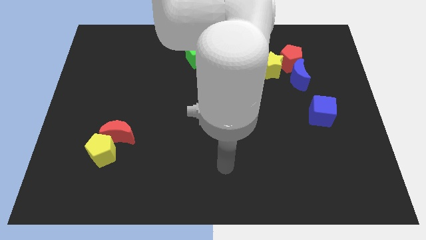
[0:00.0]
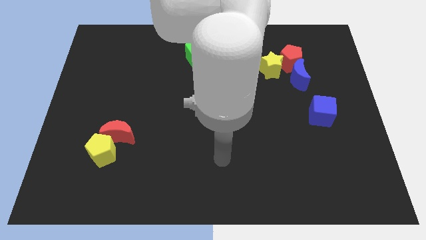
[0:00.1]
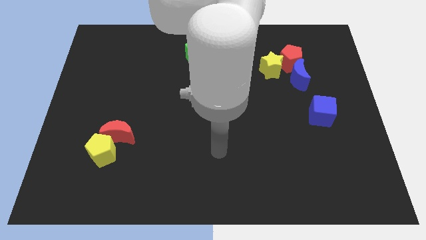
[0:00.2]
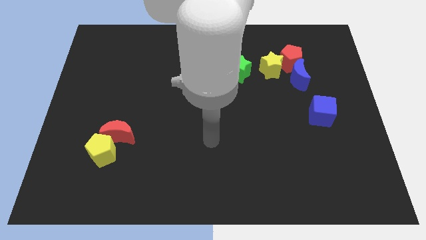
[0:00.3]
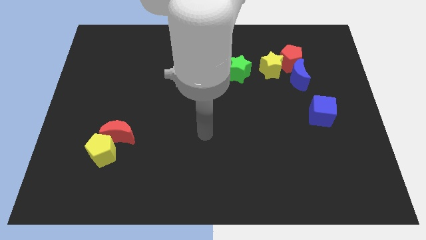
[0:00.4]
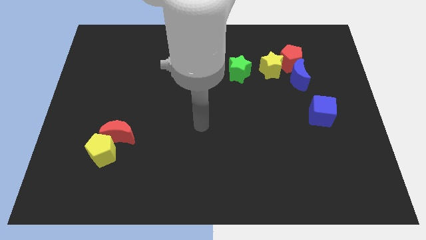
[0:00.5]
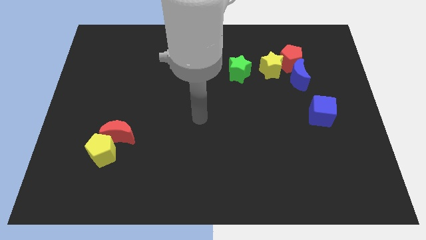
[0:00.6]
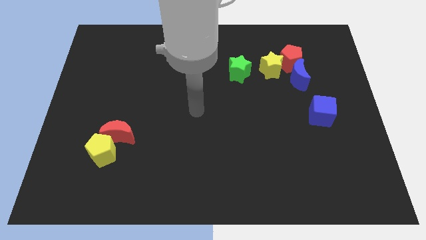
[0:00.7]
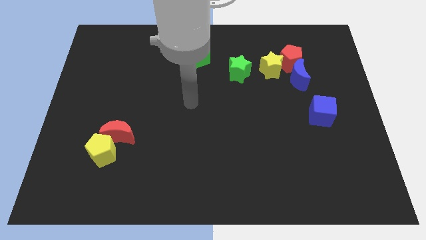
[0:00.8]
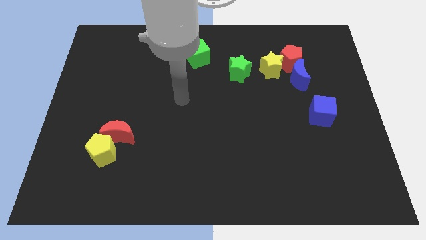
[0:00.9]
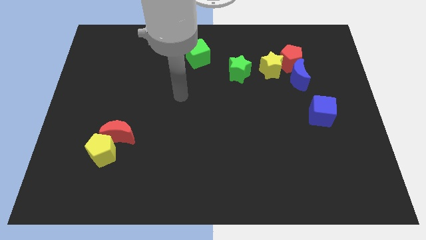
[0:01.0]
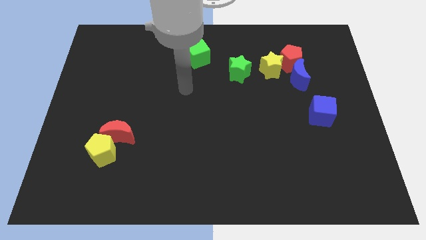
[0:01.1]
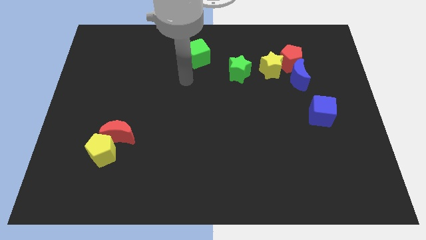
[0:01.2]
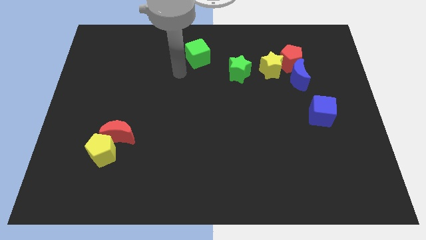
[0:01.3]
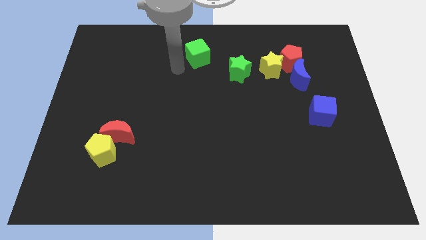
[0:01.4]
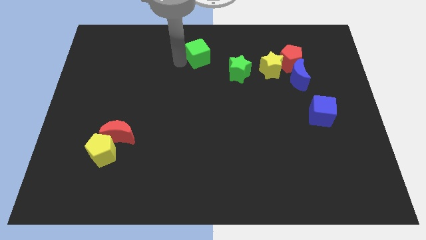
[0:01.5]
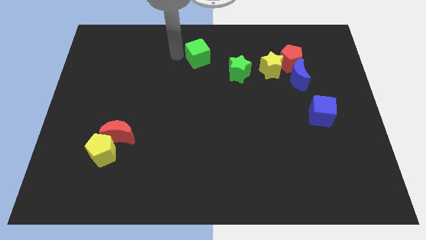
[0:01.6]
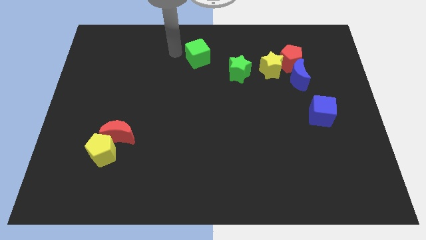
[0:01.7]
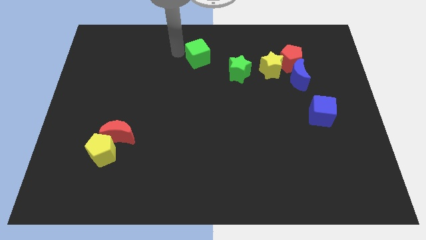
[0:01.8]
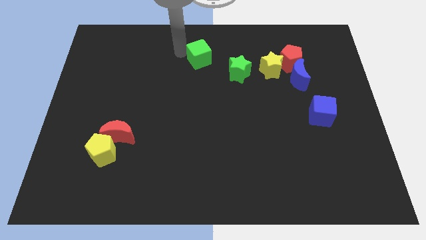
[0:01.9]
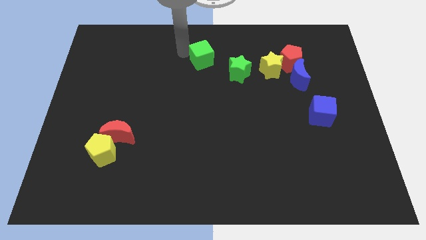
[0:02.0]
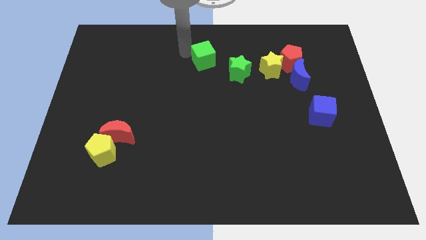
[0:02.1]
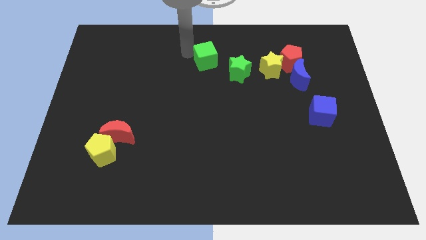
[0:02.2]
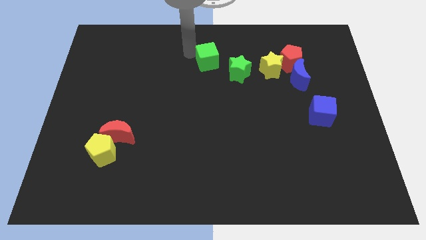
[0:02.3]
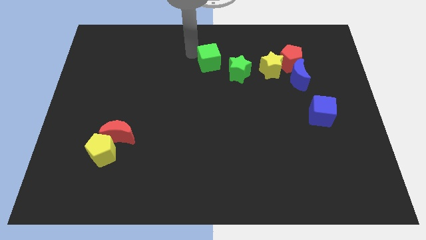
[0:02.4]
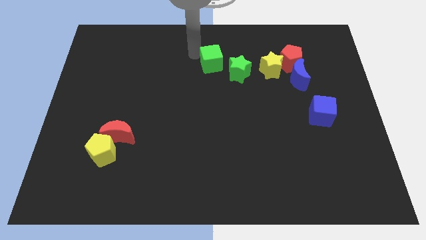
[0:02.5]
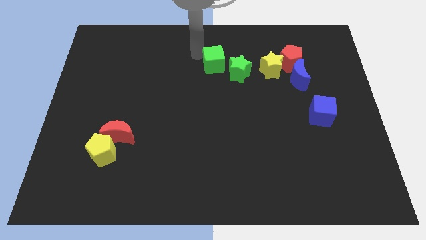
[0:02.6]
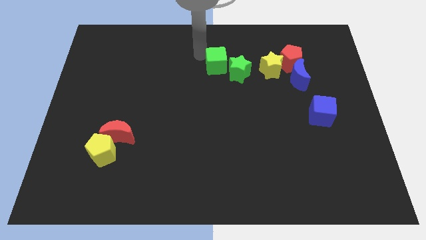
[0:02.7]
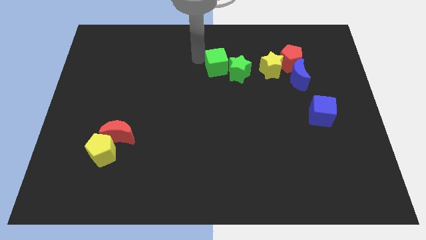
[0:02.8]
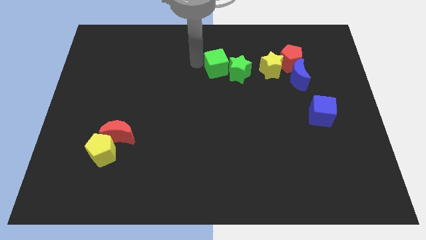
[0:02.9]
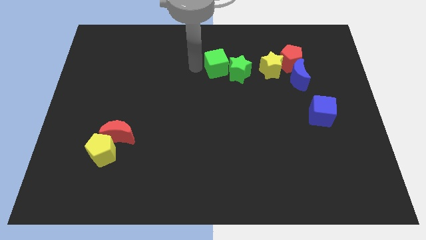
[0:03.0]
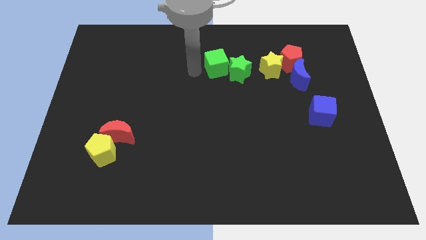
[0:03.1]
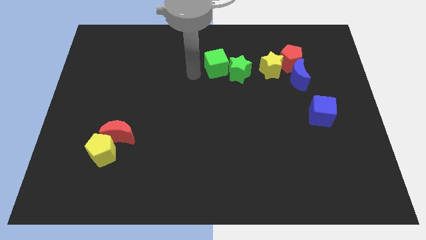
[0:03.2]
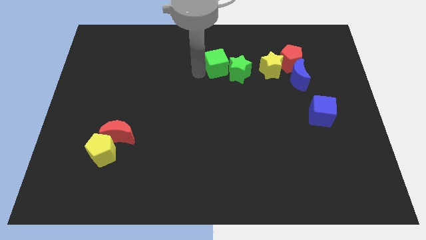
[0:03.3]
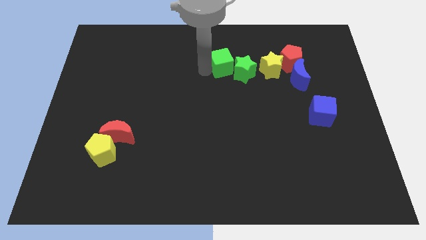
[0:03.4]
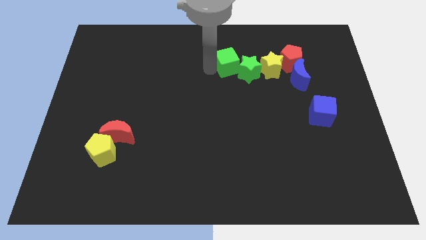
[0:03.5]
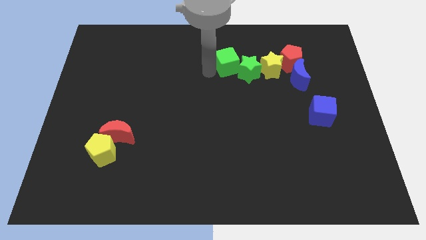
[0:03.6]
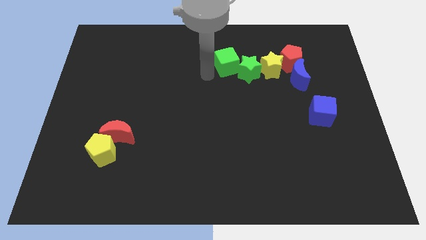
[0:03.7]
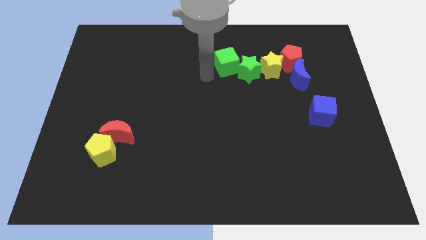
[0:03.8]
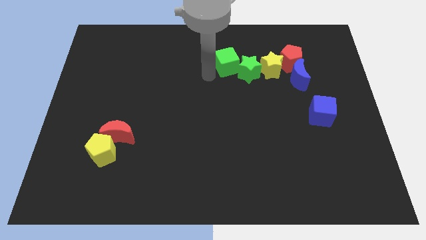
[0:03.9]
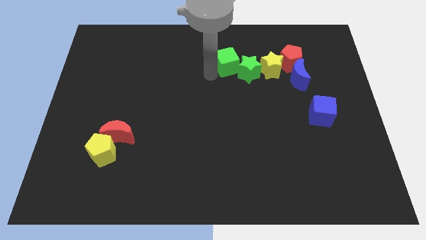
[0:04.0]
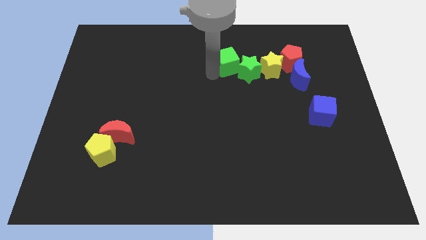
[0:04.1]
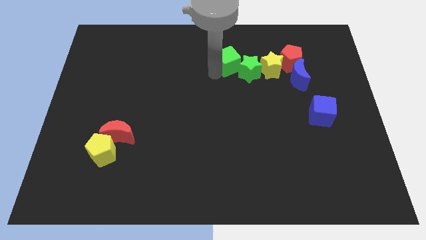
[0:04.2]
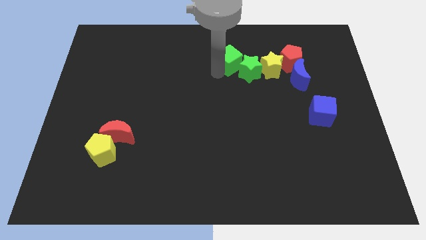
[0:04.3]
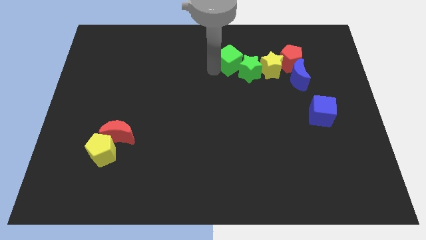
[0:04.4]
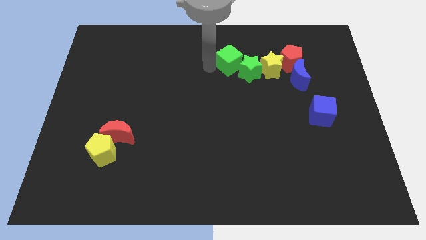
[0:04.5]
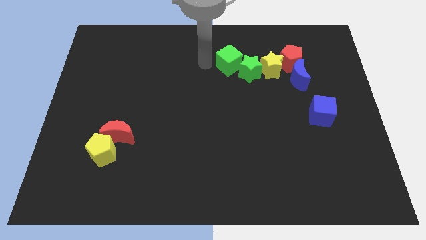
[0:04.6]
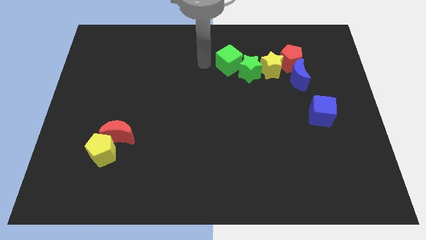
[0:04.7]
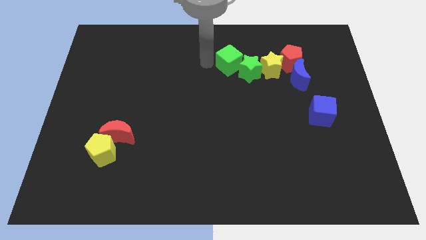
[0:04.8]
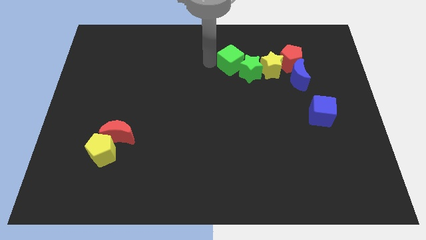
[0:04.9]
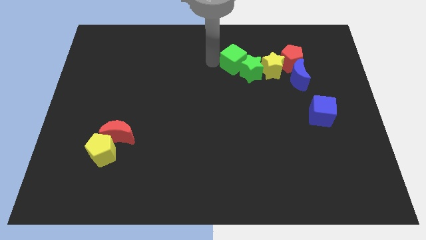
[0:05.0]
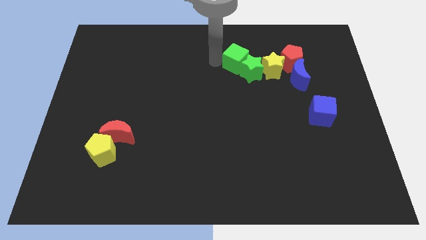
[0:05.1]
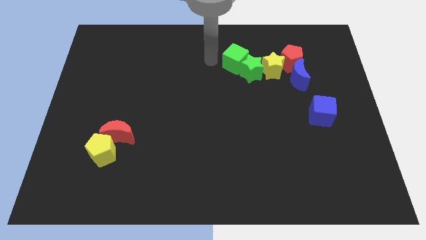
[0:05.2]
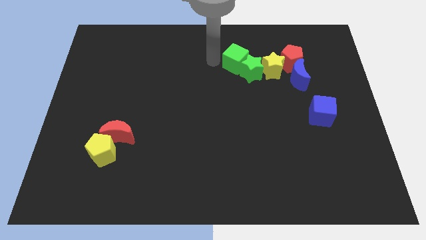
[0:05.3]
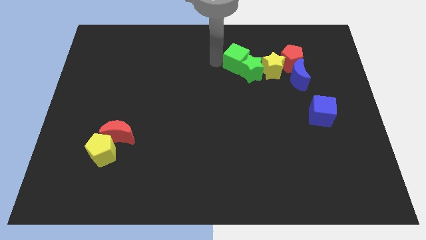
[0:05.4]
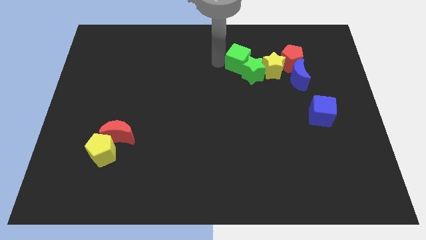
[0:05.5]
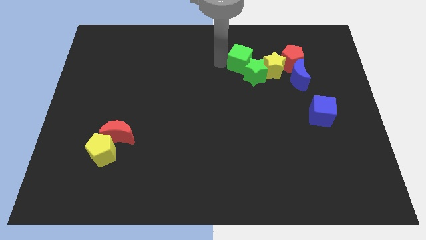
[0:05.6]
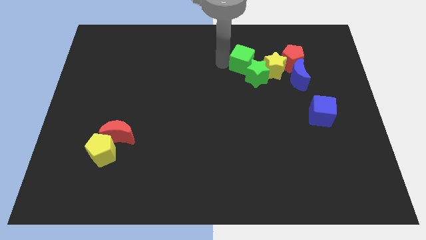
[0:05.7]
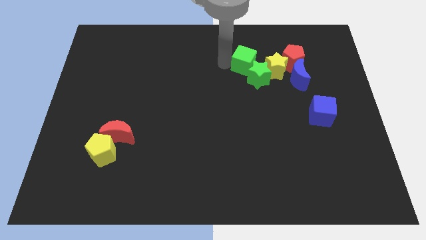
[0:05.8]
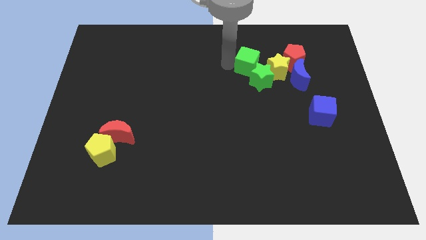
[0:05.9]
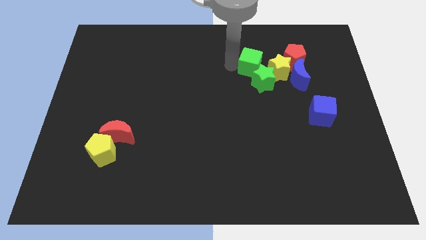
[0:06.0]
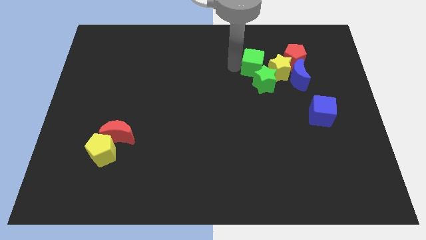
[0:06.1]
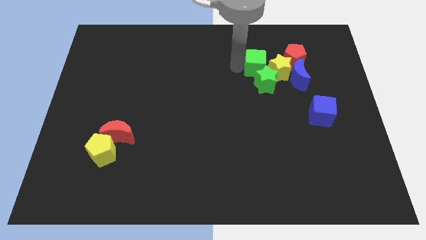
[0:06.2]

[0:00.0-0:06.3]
put the green cube close to the yellow star

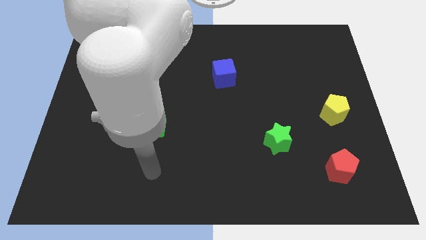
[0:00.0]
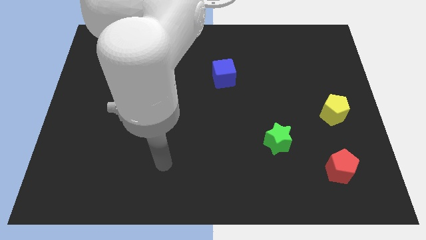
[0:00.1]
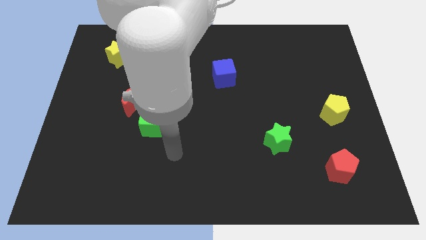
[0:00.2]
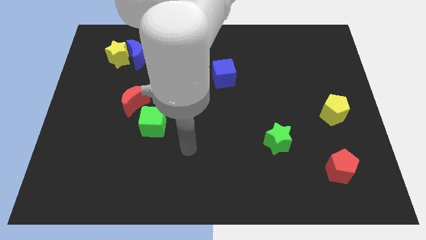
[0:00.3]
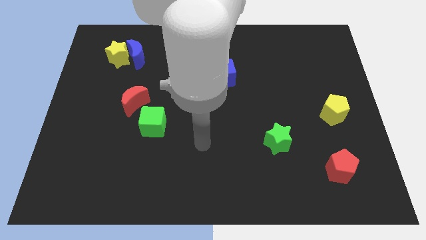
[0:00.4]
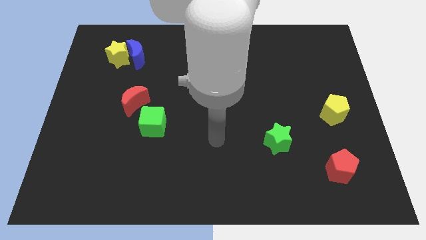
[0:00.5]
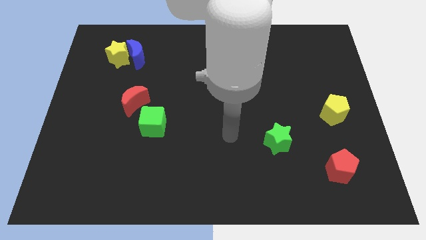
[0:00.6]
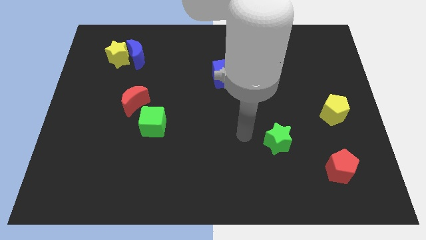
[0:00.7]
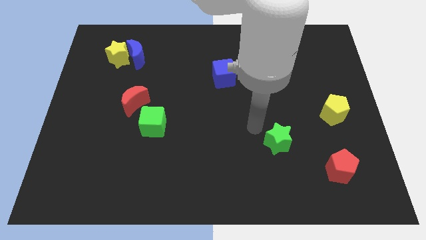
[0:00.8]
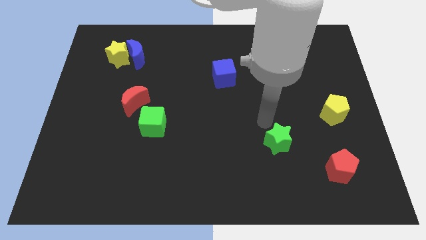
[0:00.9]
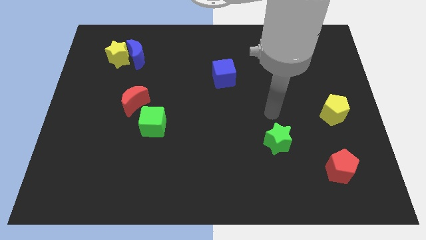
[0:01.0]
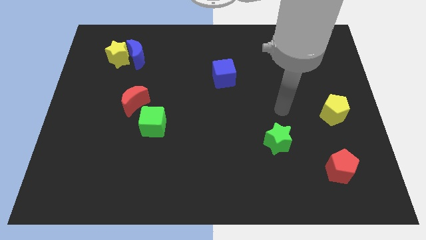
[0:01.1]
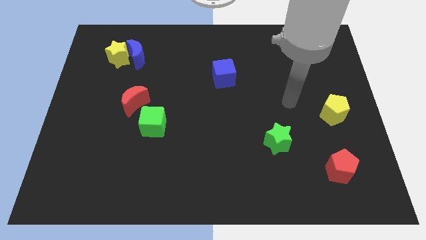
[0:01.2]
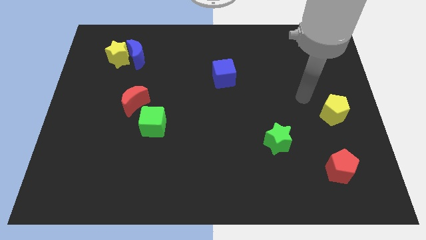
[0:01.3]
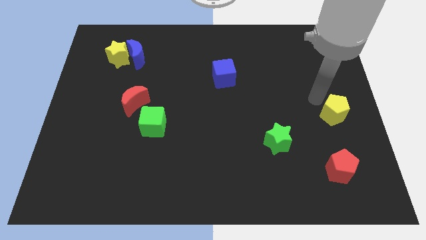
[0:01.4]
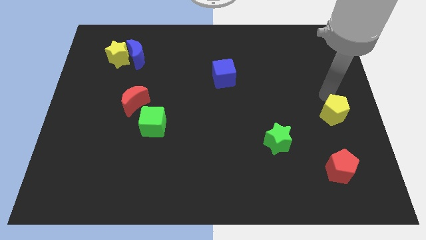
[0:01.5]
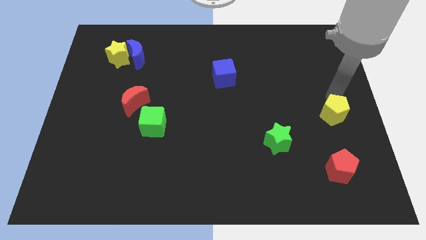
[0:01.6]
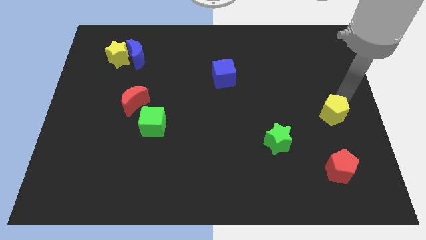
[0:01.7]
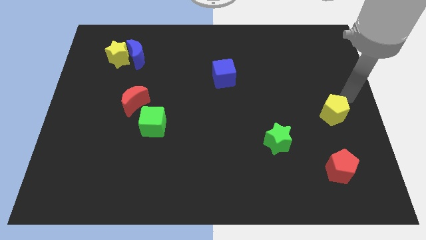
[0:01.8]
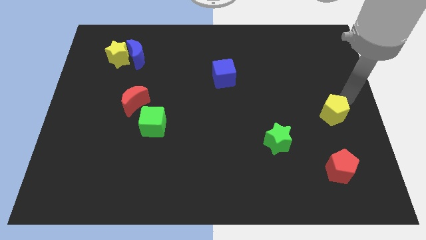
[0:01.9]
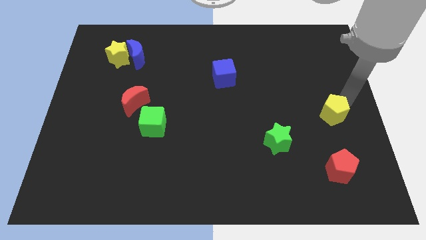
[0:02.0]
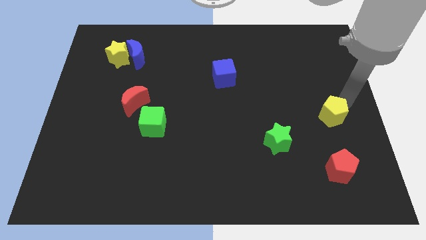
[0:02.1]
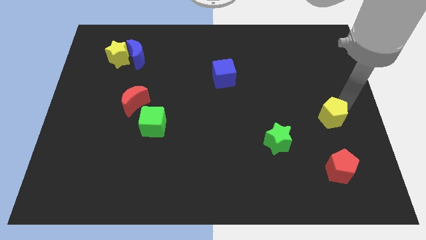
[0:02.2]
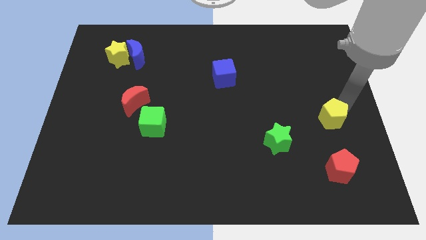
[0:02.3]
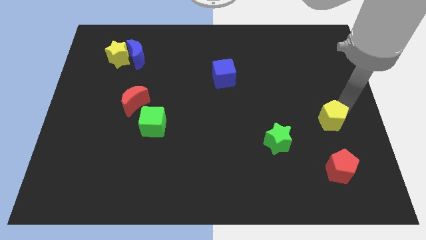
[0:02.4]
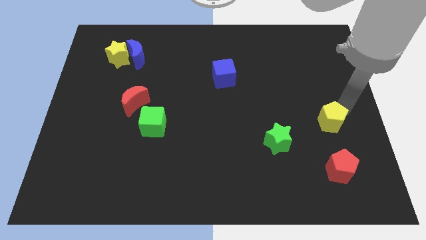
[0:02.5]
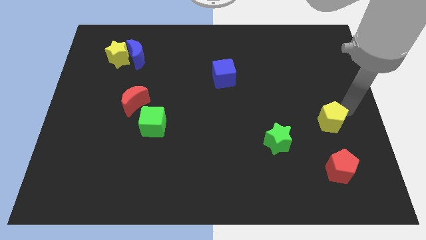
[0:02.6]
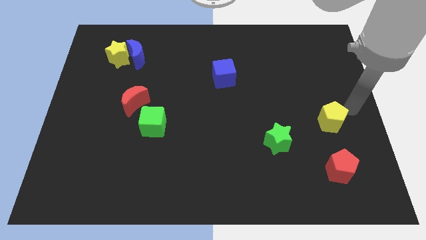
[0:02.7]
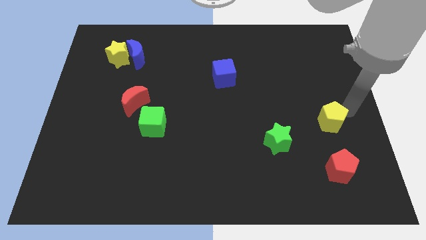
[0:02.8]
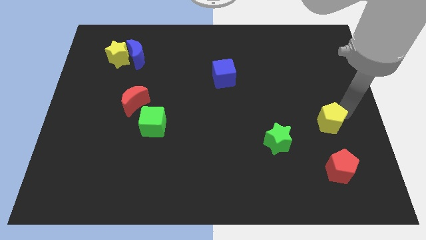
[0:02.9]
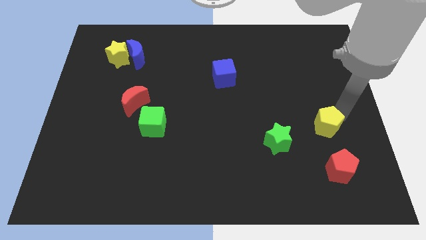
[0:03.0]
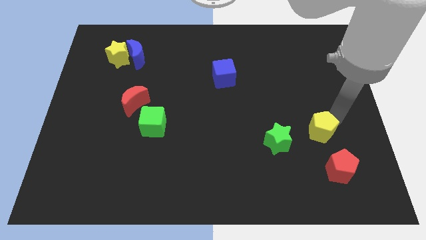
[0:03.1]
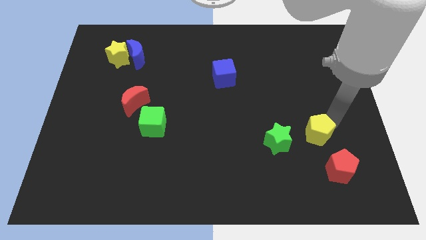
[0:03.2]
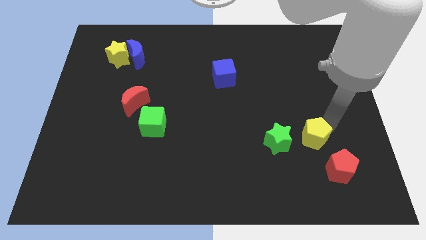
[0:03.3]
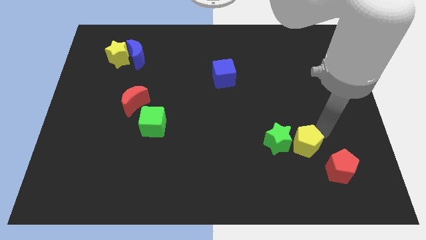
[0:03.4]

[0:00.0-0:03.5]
slide the yellow pentagon next to the green star
